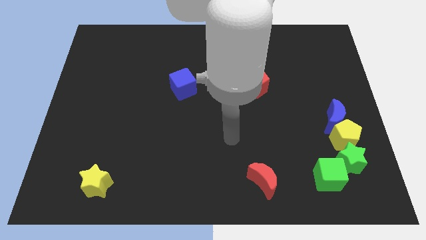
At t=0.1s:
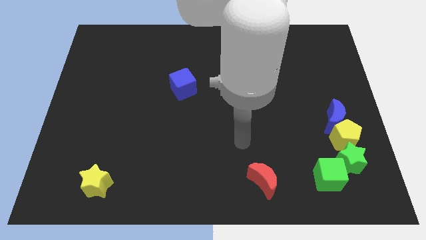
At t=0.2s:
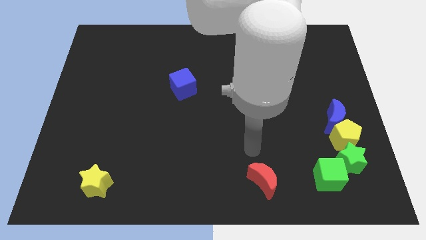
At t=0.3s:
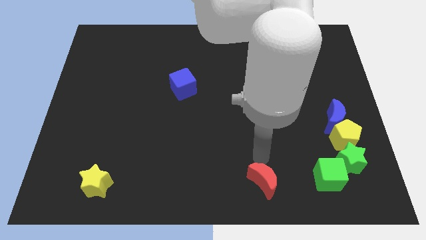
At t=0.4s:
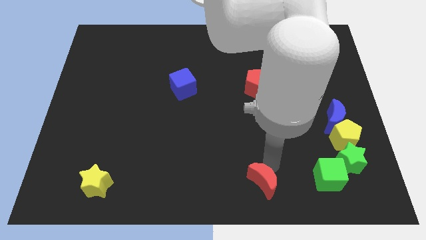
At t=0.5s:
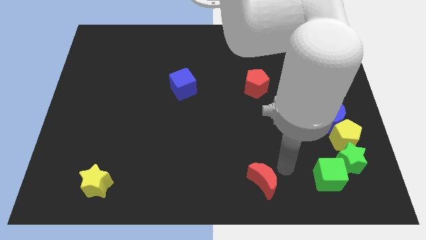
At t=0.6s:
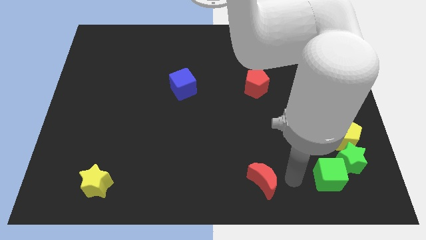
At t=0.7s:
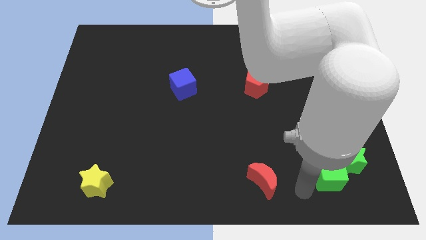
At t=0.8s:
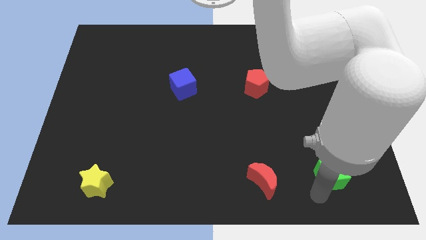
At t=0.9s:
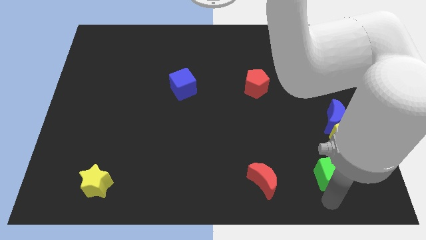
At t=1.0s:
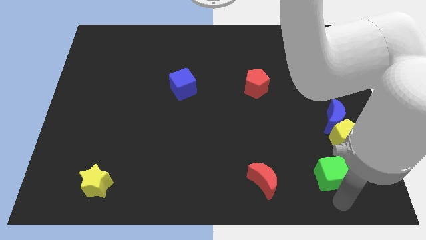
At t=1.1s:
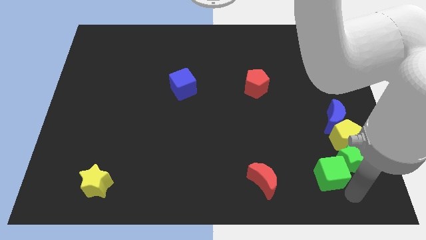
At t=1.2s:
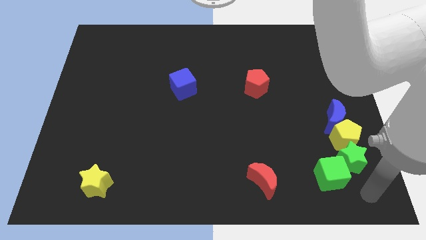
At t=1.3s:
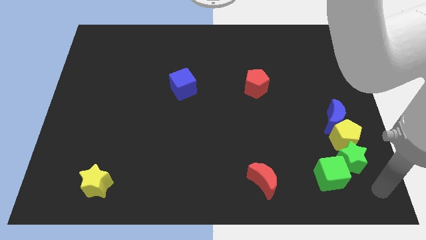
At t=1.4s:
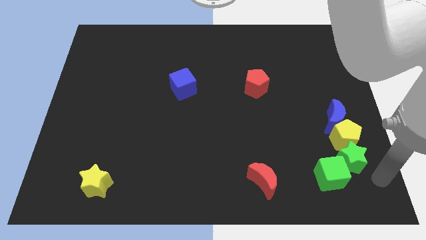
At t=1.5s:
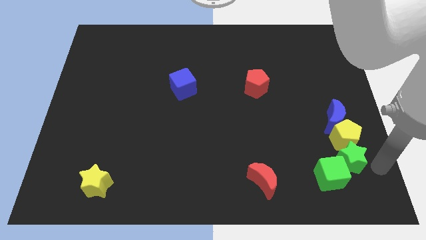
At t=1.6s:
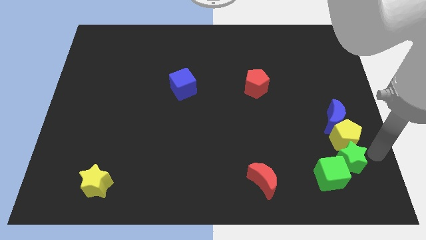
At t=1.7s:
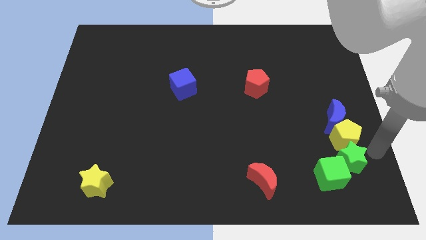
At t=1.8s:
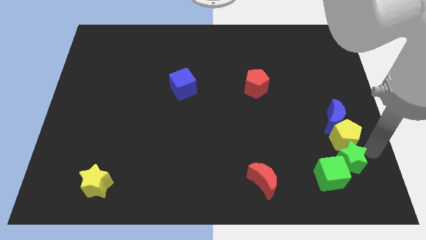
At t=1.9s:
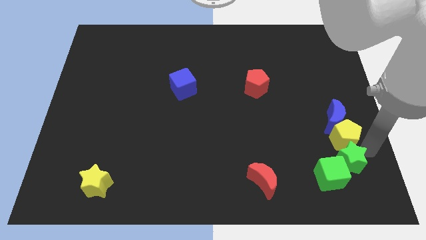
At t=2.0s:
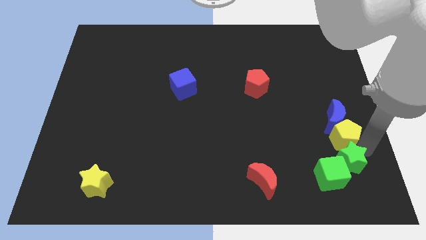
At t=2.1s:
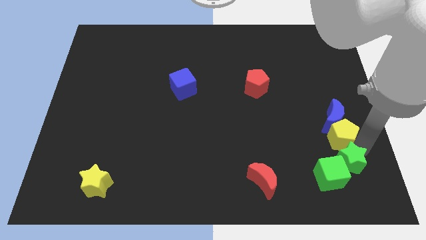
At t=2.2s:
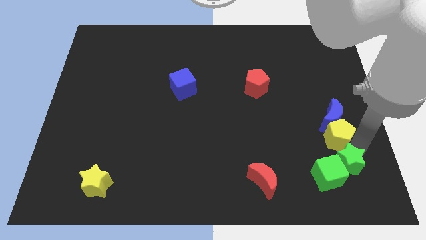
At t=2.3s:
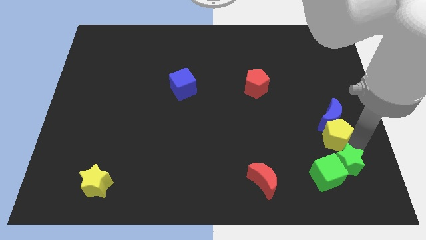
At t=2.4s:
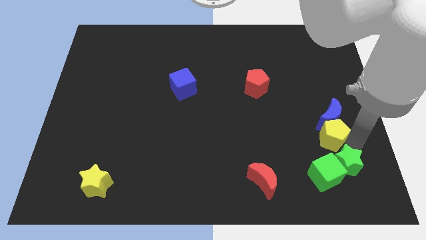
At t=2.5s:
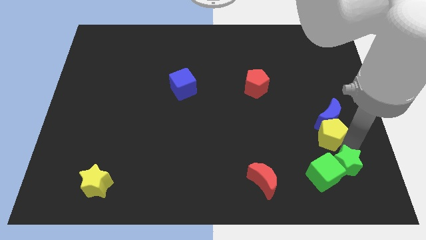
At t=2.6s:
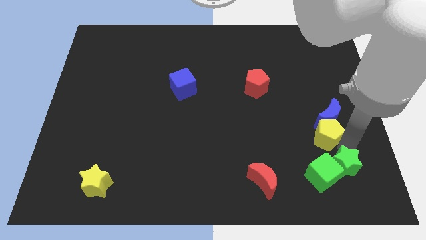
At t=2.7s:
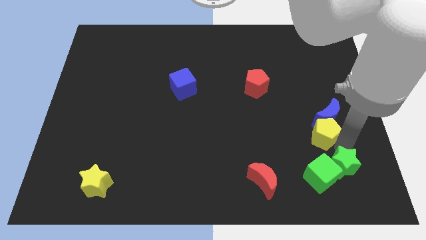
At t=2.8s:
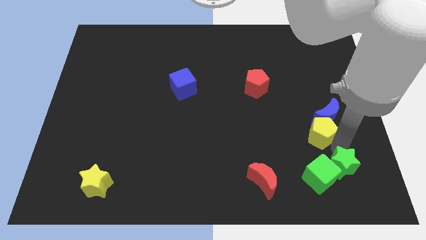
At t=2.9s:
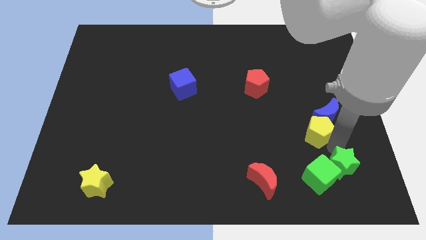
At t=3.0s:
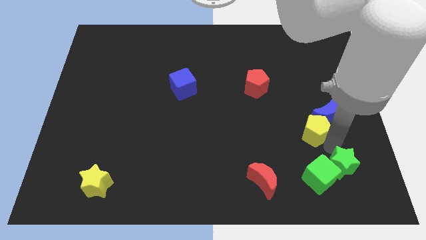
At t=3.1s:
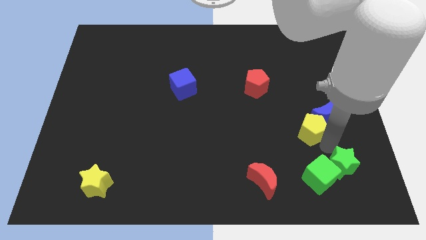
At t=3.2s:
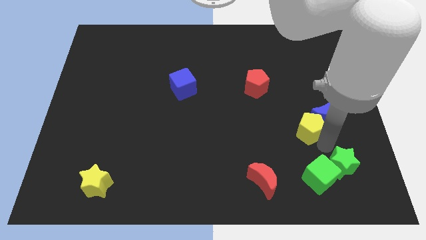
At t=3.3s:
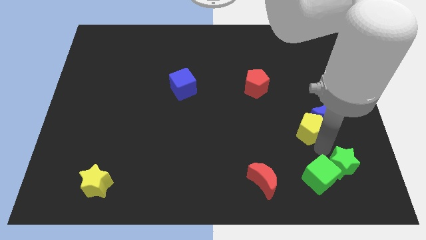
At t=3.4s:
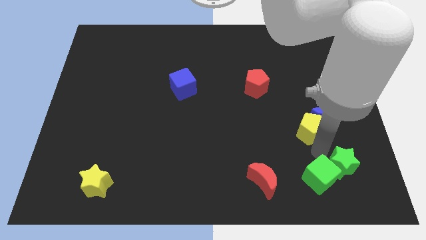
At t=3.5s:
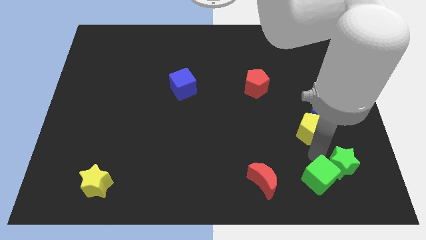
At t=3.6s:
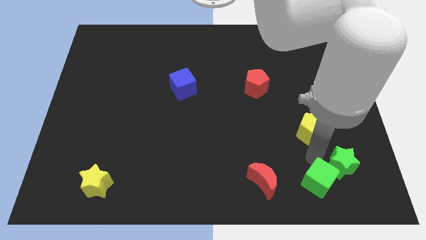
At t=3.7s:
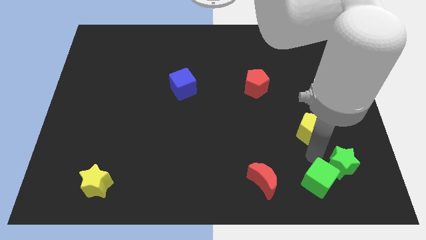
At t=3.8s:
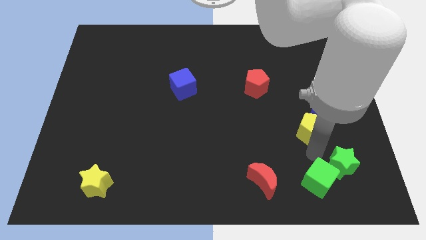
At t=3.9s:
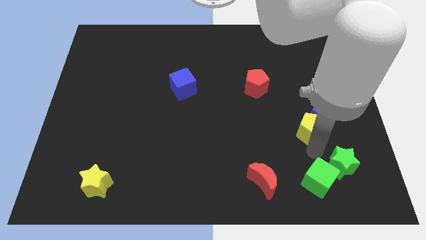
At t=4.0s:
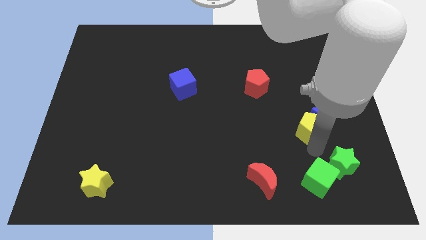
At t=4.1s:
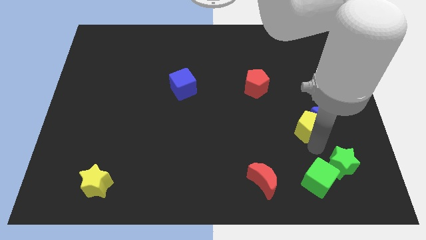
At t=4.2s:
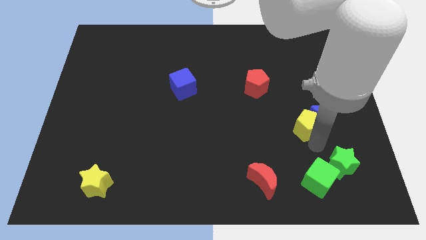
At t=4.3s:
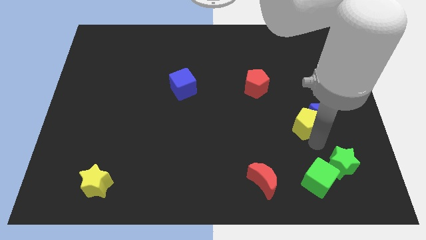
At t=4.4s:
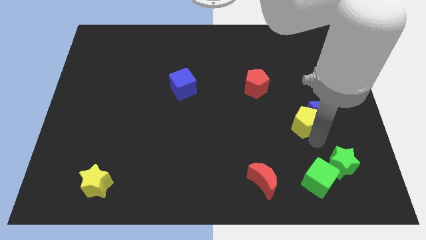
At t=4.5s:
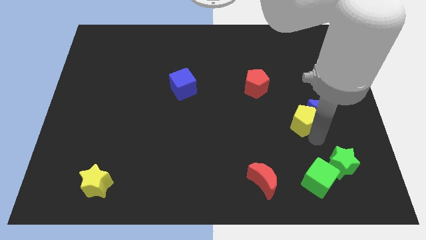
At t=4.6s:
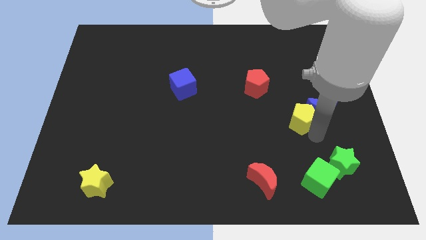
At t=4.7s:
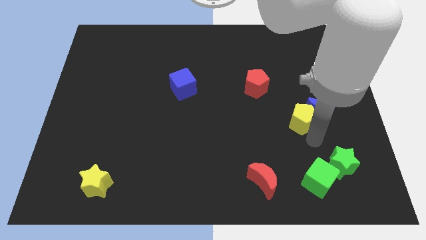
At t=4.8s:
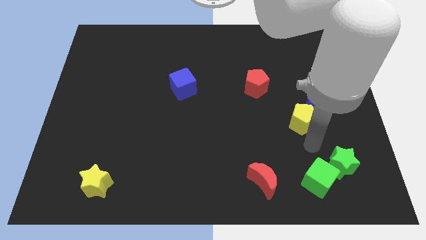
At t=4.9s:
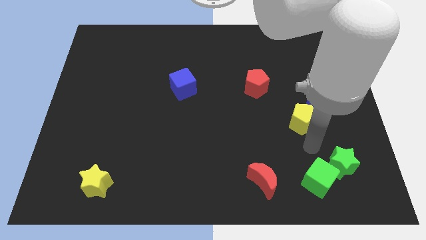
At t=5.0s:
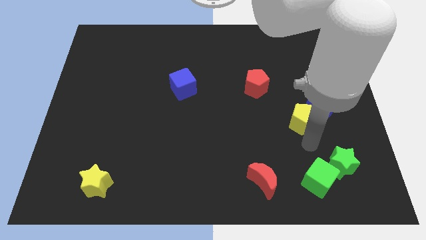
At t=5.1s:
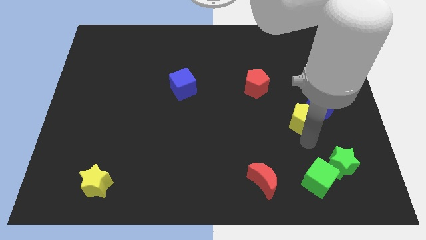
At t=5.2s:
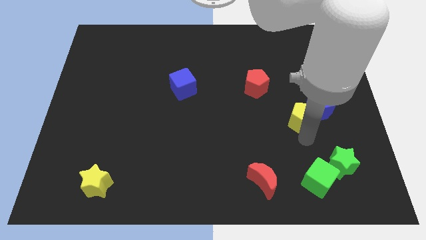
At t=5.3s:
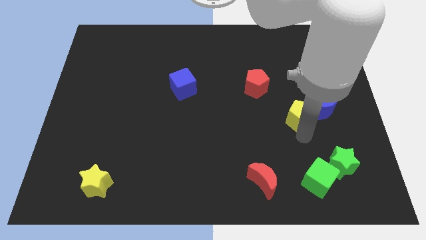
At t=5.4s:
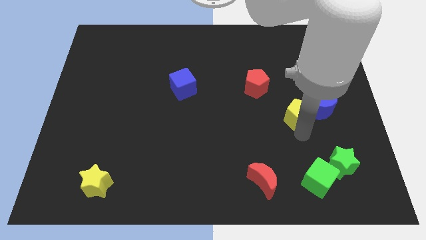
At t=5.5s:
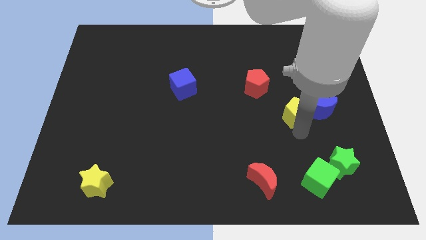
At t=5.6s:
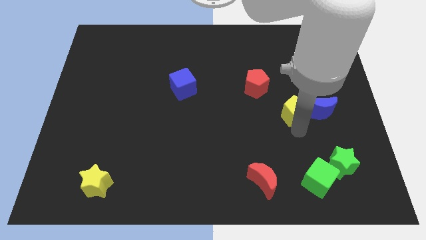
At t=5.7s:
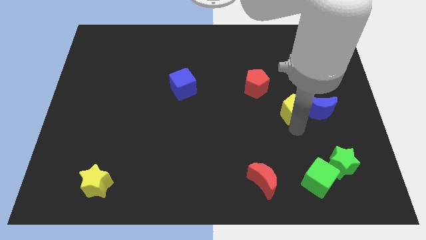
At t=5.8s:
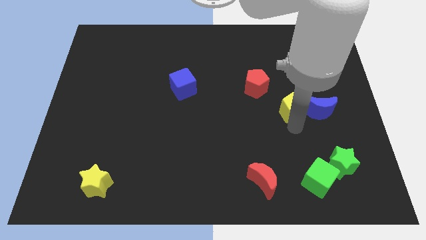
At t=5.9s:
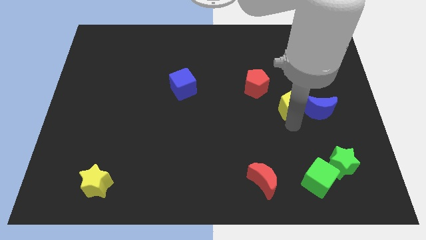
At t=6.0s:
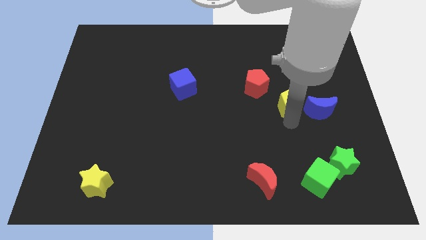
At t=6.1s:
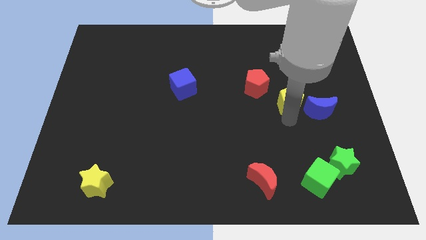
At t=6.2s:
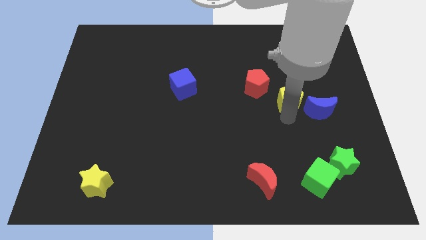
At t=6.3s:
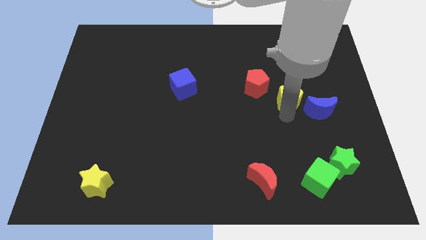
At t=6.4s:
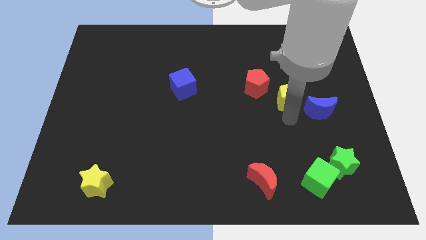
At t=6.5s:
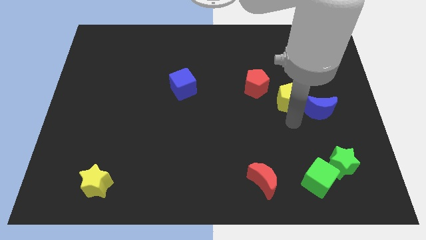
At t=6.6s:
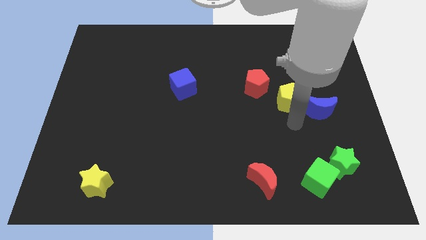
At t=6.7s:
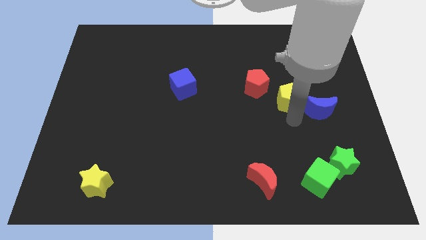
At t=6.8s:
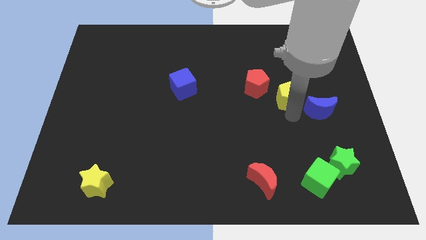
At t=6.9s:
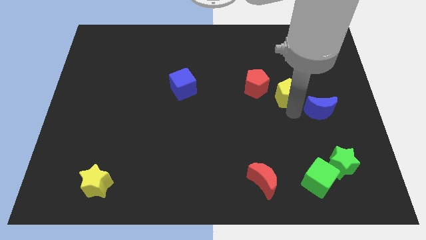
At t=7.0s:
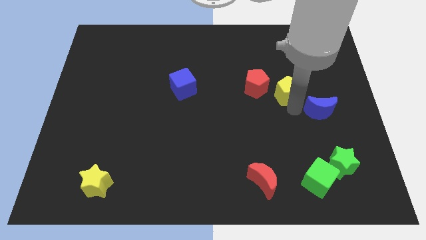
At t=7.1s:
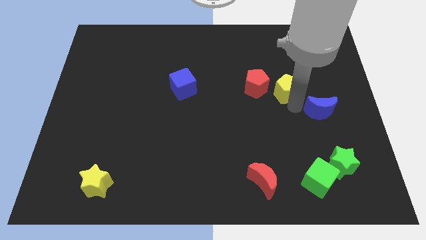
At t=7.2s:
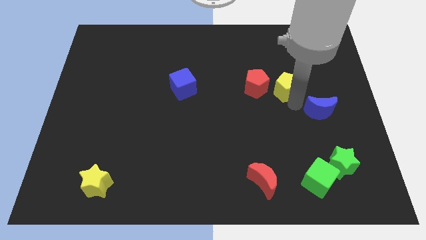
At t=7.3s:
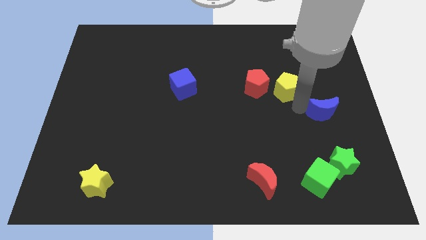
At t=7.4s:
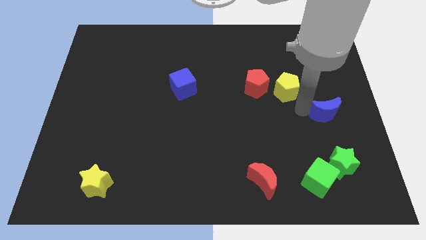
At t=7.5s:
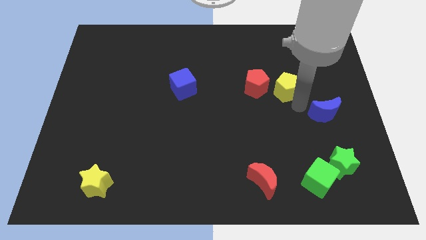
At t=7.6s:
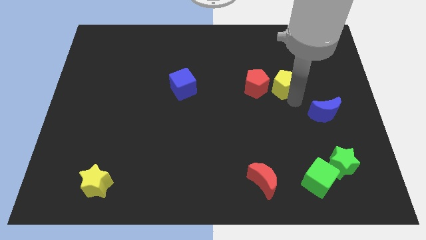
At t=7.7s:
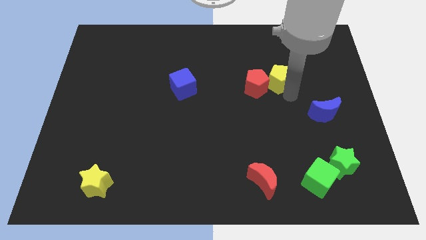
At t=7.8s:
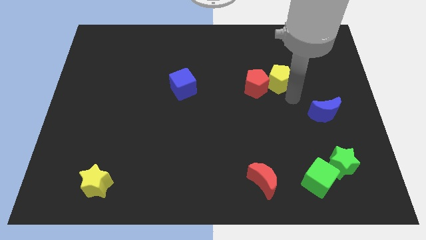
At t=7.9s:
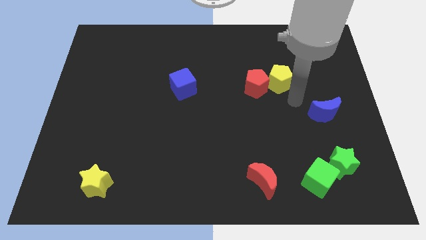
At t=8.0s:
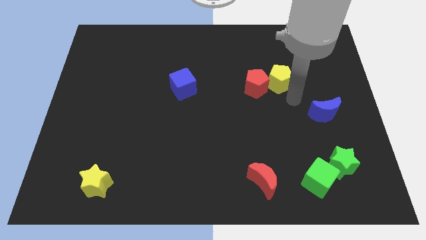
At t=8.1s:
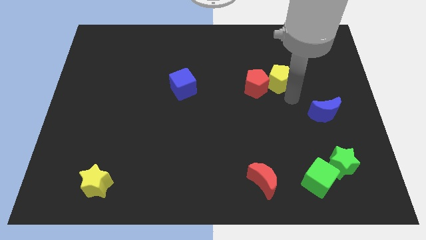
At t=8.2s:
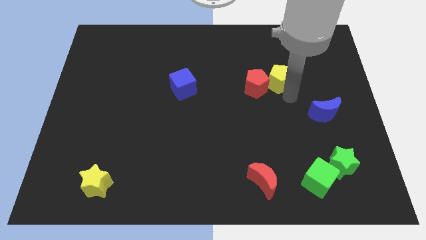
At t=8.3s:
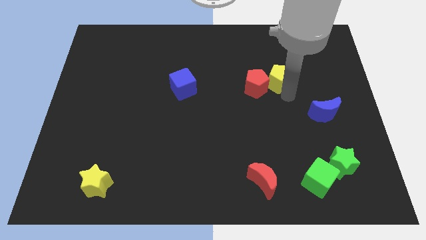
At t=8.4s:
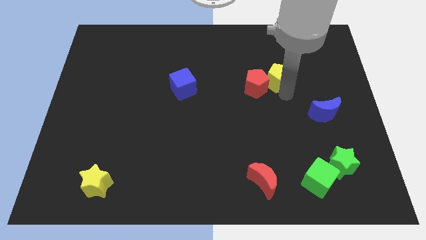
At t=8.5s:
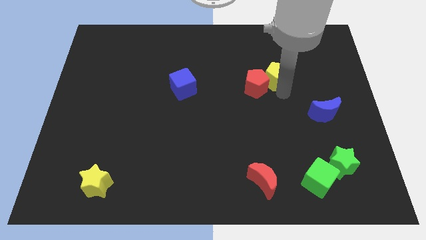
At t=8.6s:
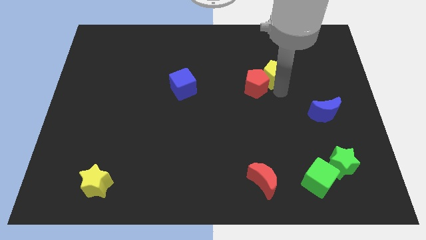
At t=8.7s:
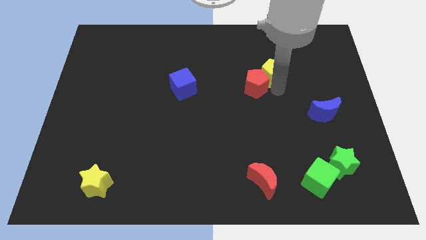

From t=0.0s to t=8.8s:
put the yellow pentagon to the top of the red pentagon
